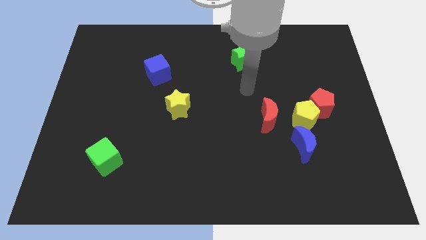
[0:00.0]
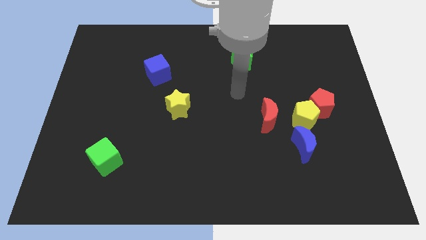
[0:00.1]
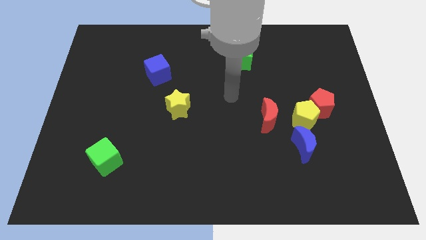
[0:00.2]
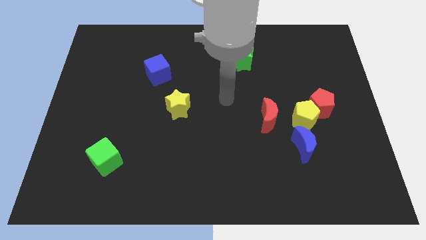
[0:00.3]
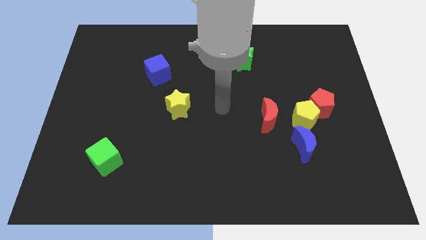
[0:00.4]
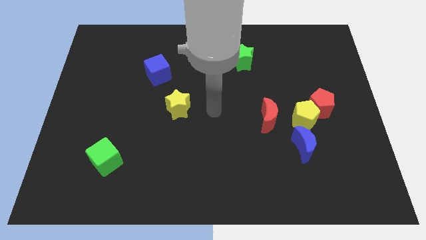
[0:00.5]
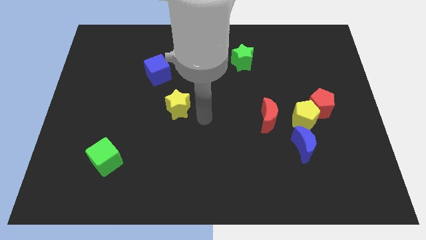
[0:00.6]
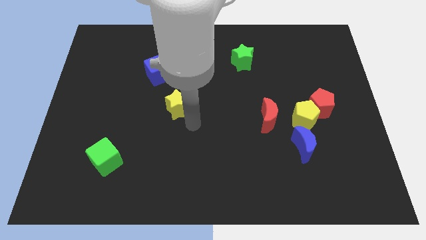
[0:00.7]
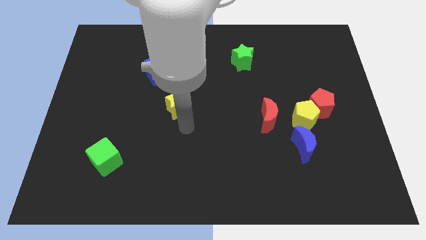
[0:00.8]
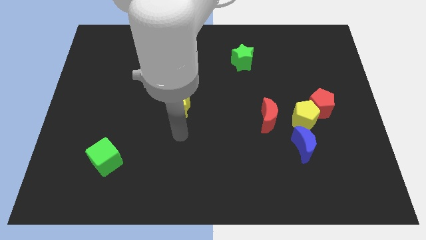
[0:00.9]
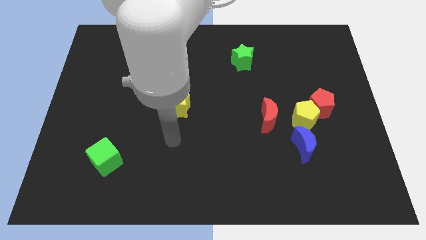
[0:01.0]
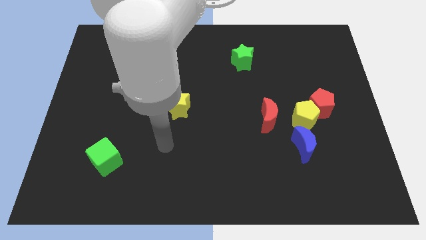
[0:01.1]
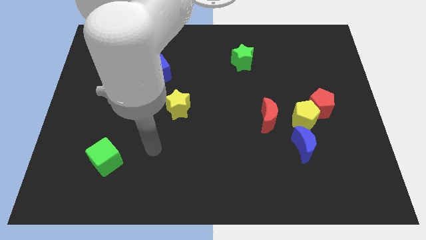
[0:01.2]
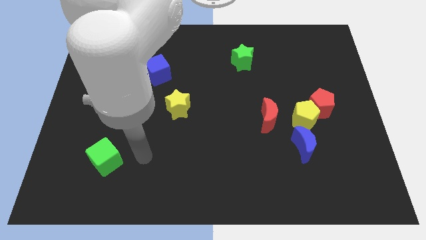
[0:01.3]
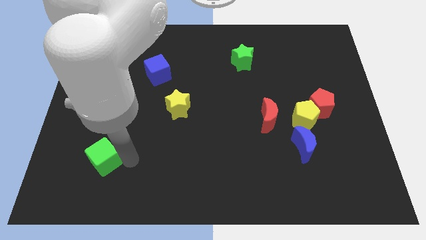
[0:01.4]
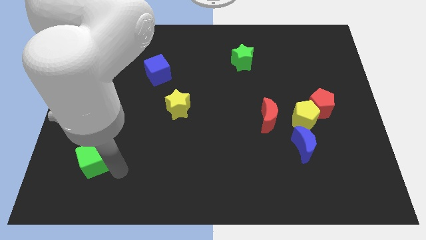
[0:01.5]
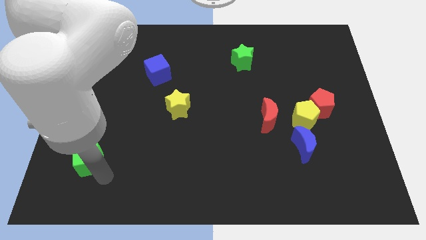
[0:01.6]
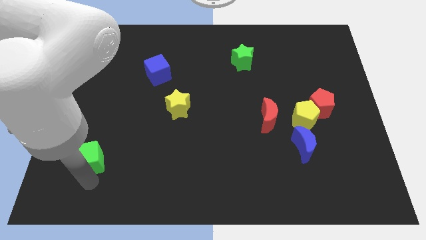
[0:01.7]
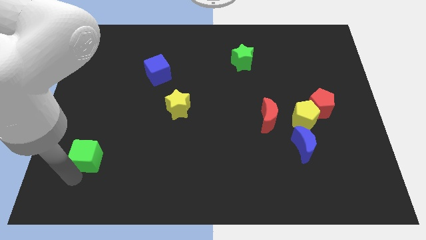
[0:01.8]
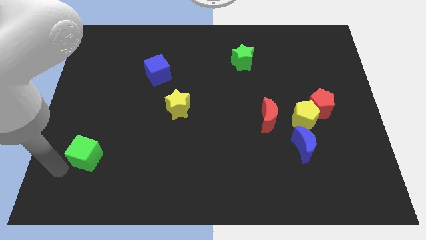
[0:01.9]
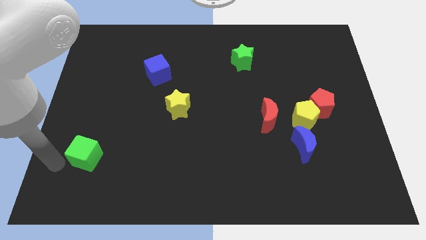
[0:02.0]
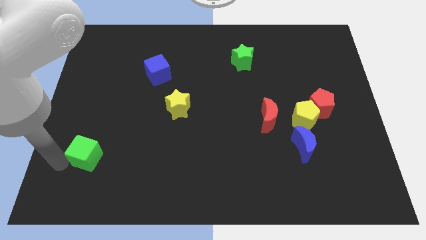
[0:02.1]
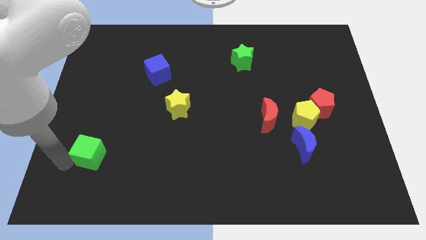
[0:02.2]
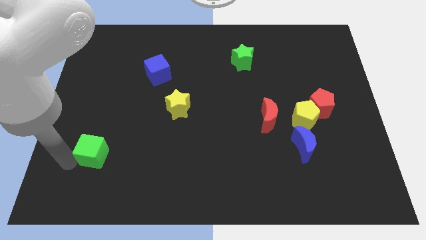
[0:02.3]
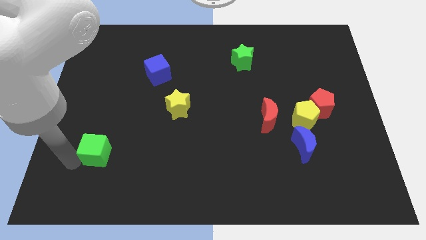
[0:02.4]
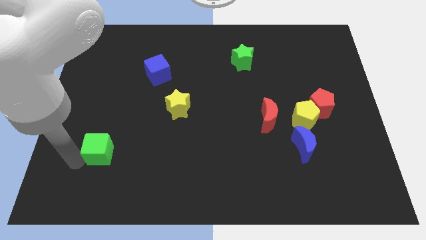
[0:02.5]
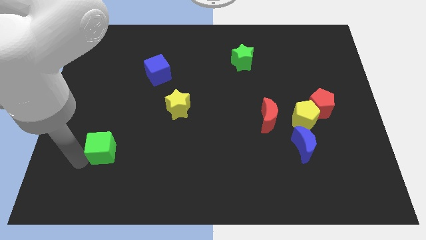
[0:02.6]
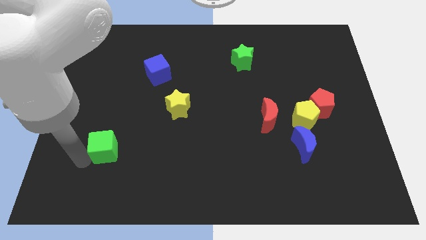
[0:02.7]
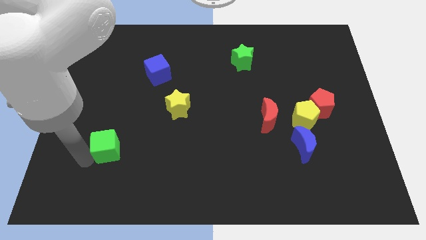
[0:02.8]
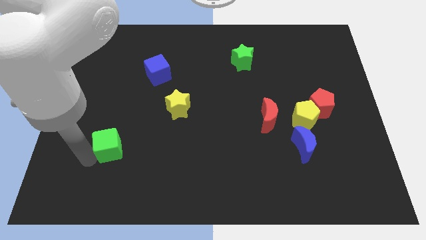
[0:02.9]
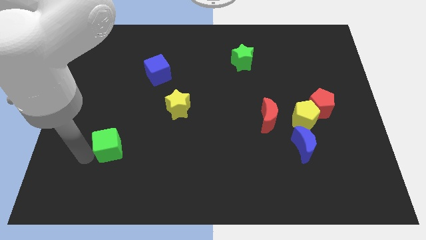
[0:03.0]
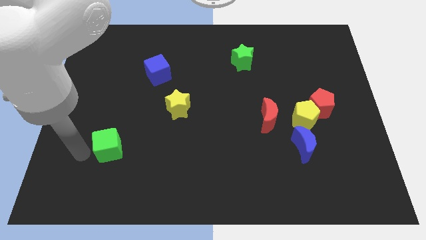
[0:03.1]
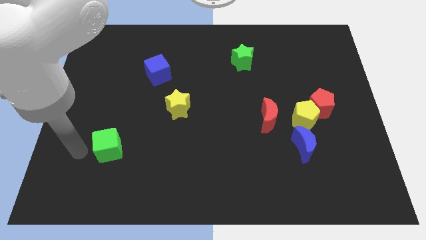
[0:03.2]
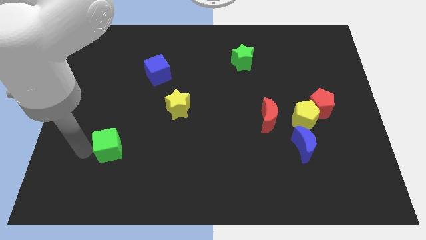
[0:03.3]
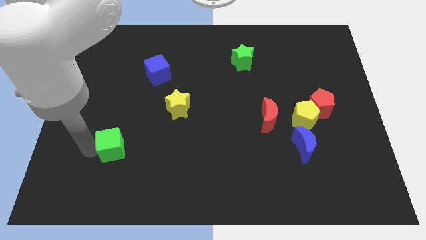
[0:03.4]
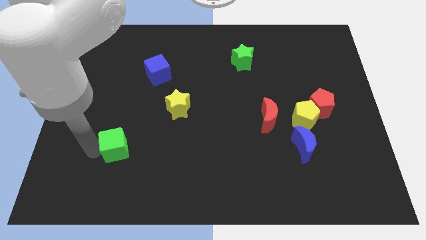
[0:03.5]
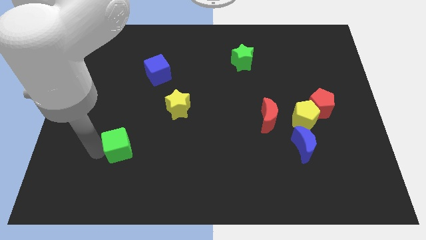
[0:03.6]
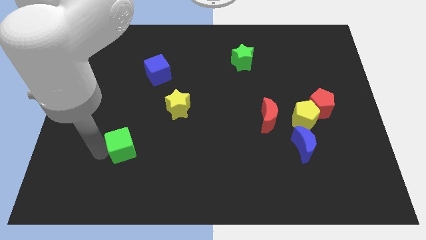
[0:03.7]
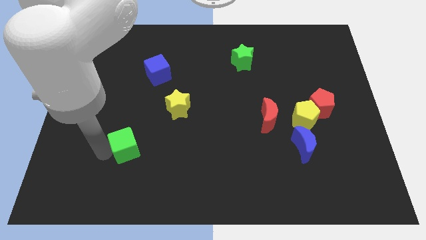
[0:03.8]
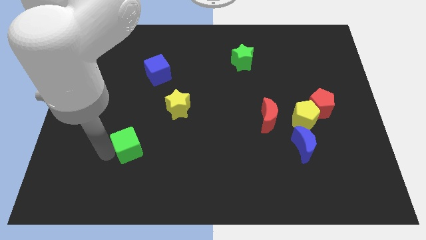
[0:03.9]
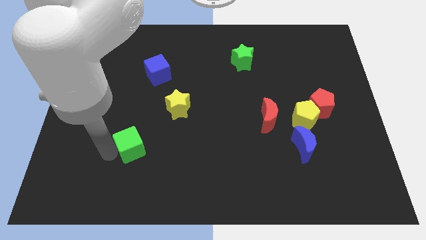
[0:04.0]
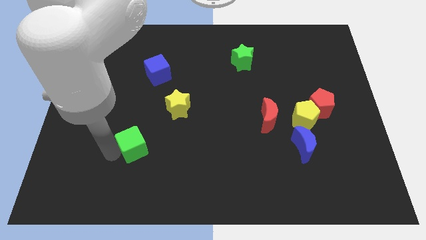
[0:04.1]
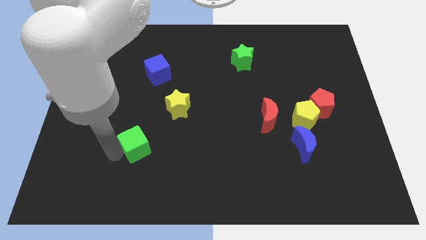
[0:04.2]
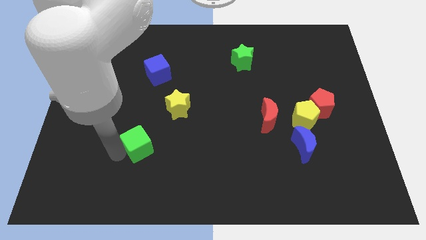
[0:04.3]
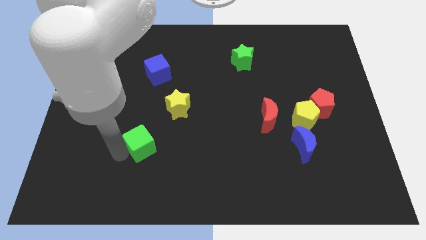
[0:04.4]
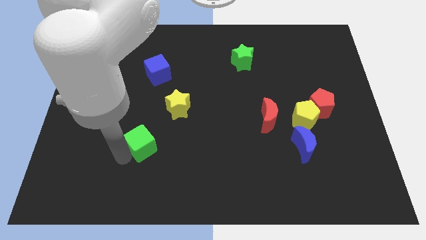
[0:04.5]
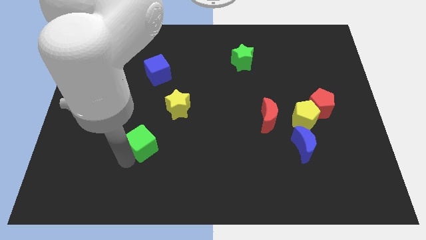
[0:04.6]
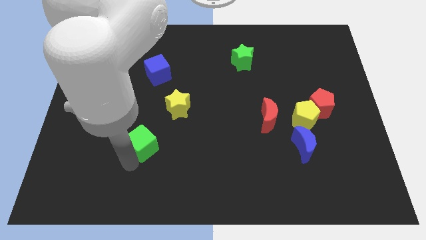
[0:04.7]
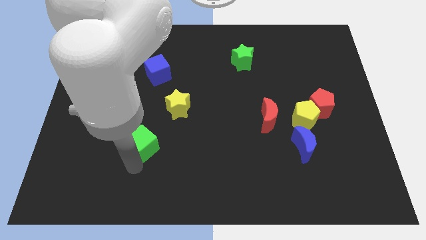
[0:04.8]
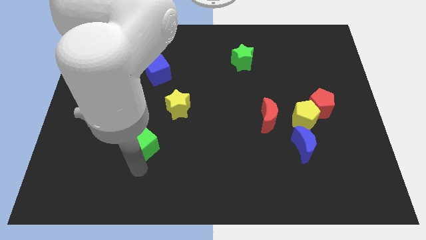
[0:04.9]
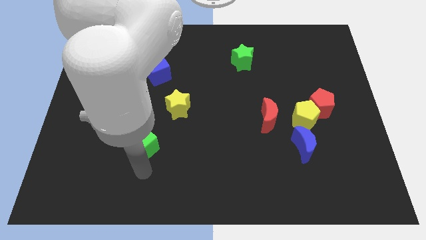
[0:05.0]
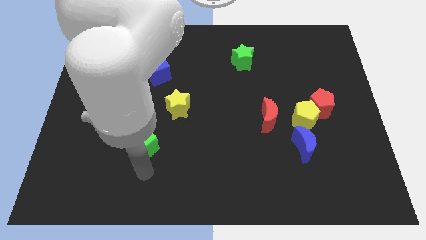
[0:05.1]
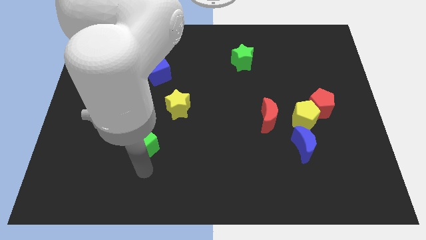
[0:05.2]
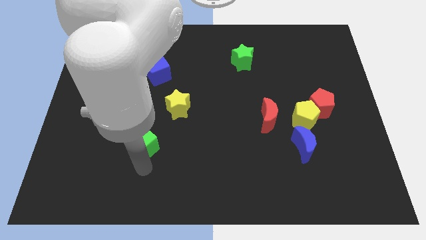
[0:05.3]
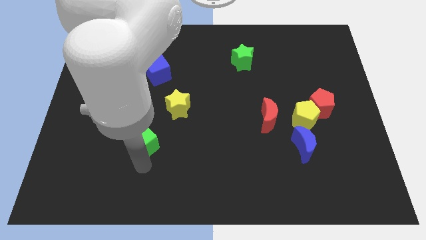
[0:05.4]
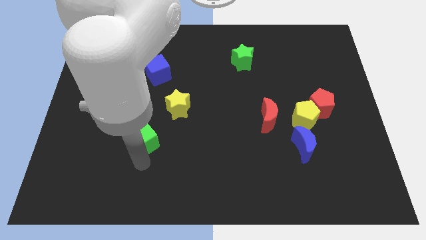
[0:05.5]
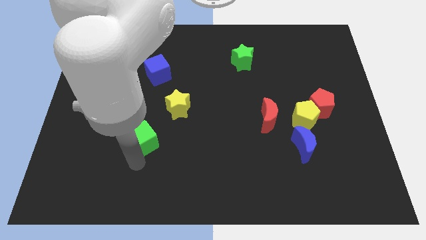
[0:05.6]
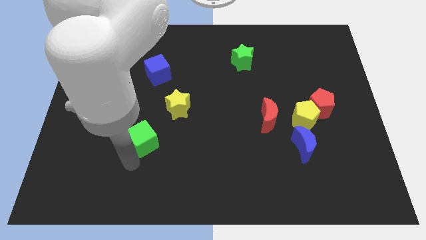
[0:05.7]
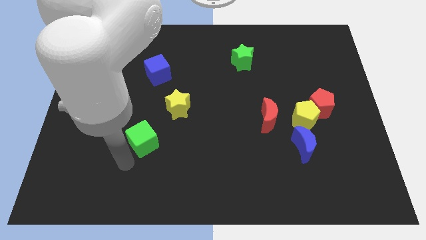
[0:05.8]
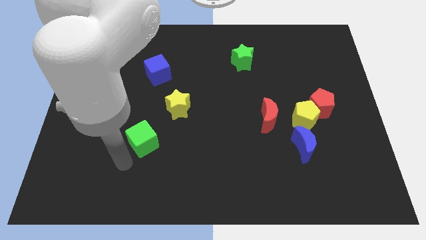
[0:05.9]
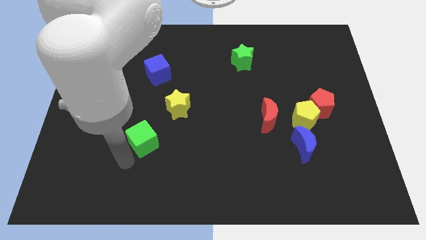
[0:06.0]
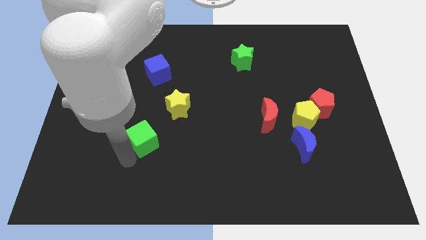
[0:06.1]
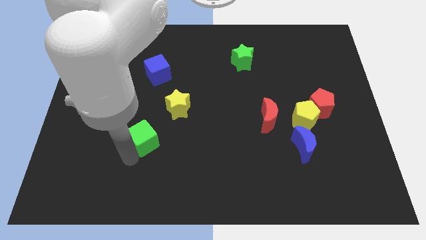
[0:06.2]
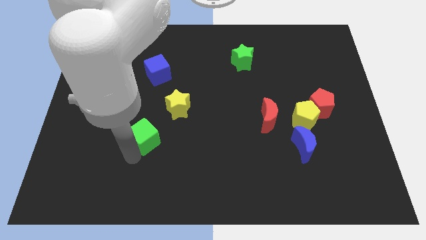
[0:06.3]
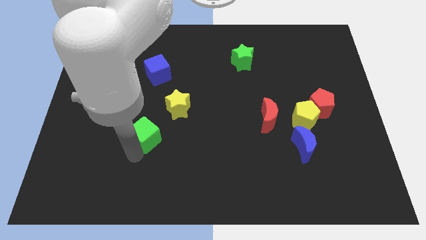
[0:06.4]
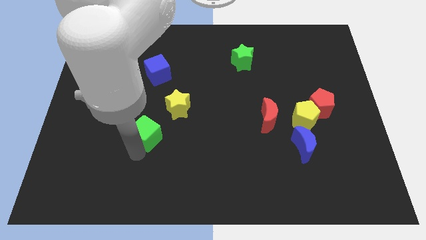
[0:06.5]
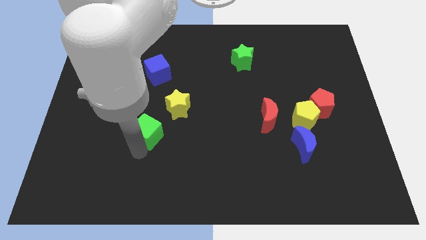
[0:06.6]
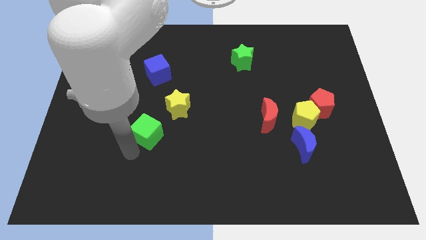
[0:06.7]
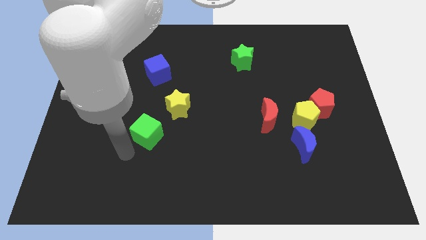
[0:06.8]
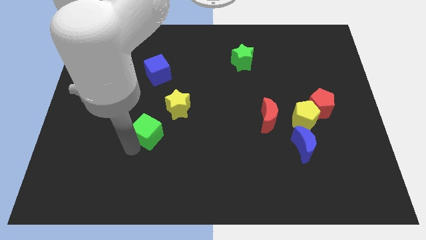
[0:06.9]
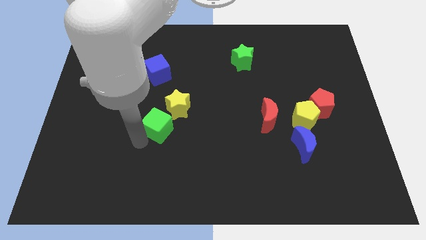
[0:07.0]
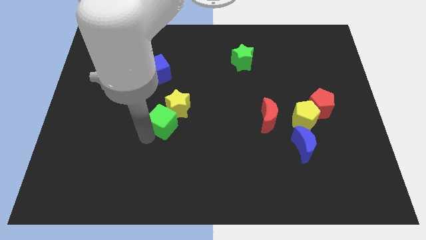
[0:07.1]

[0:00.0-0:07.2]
push the green cube next to the yellow star
